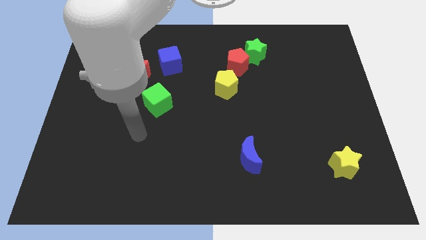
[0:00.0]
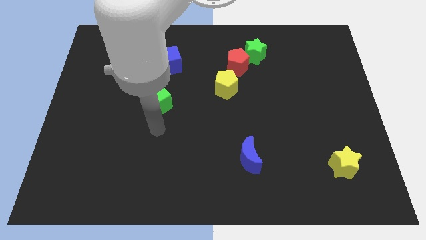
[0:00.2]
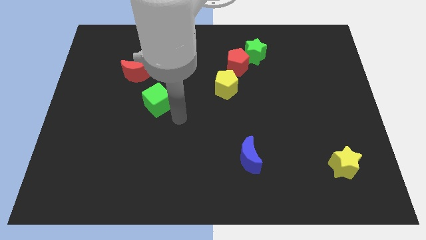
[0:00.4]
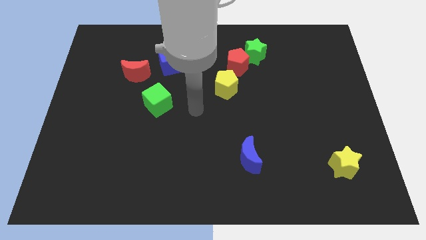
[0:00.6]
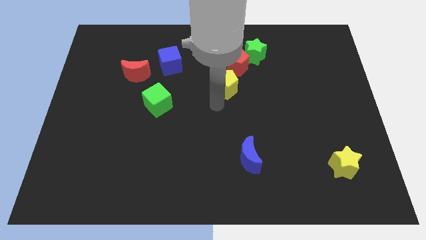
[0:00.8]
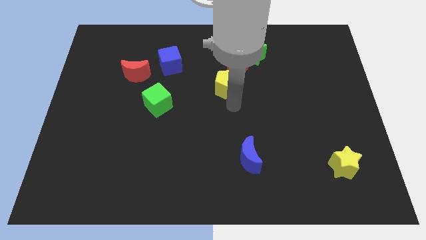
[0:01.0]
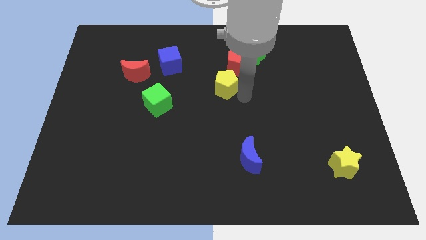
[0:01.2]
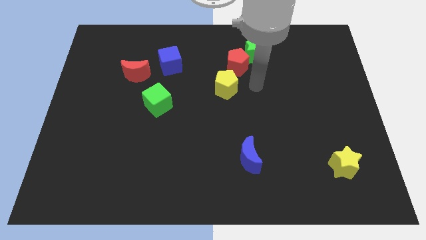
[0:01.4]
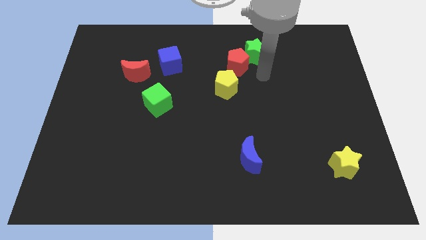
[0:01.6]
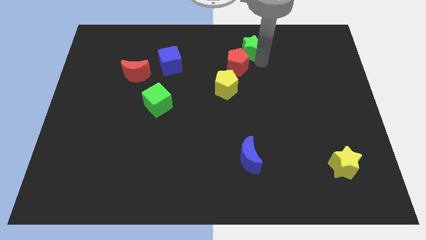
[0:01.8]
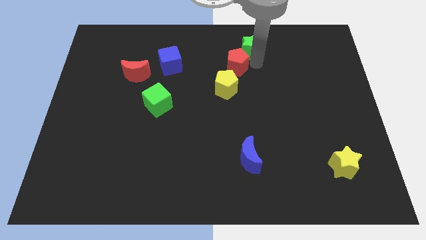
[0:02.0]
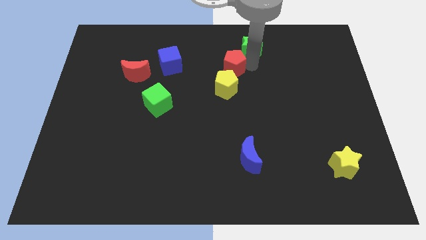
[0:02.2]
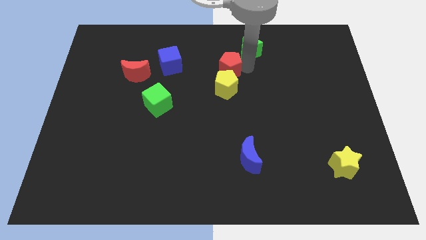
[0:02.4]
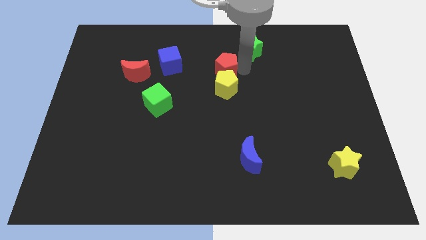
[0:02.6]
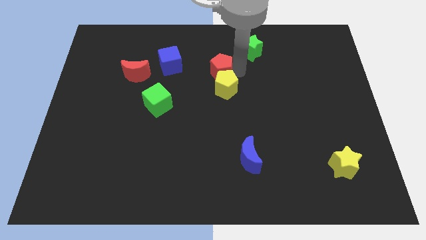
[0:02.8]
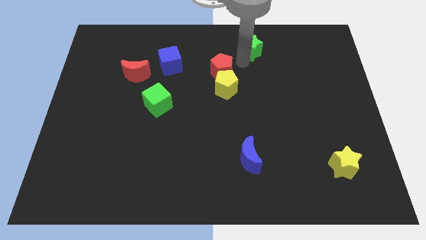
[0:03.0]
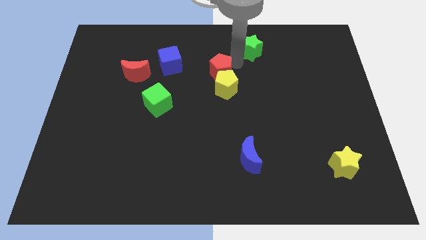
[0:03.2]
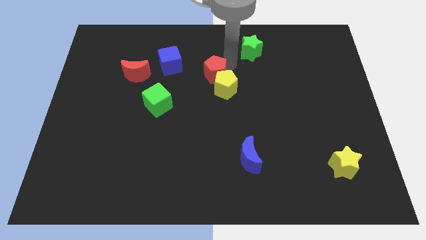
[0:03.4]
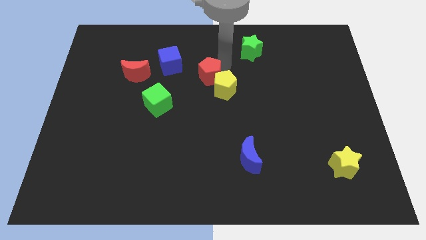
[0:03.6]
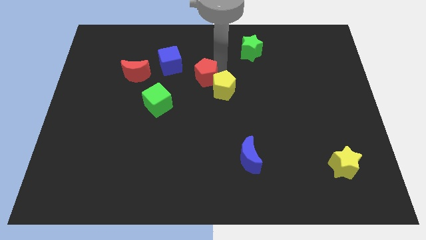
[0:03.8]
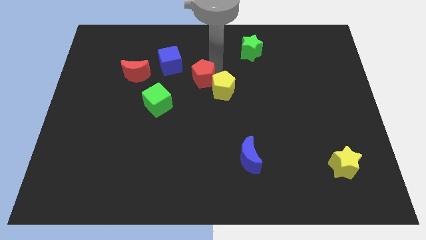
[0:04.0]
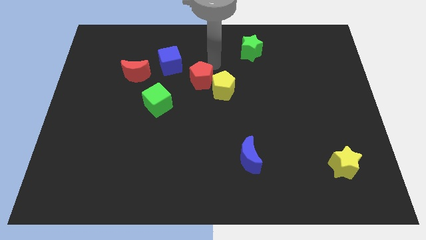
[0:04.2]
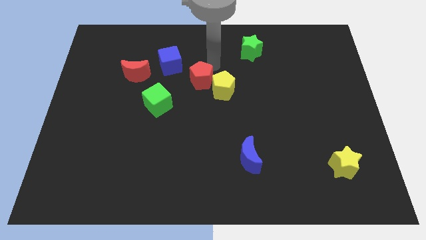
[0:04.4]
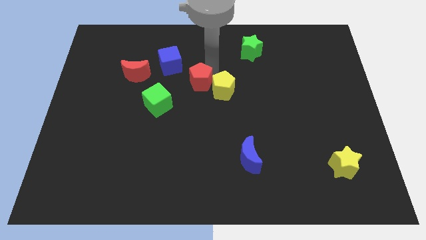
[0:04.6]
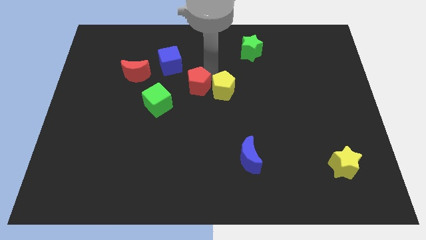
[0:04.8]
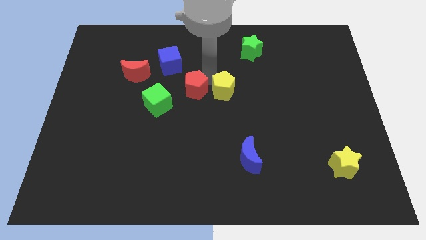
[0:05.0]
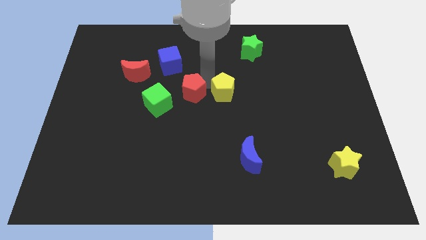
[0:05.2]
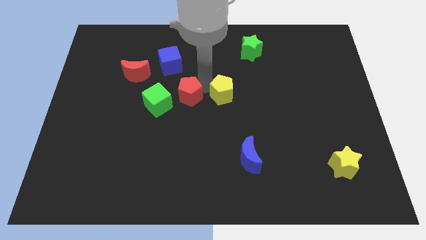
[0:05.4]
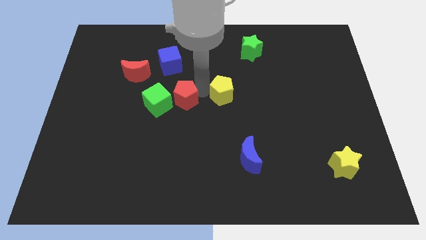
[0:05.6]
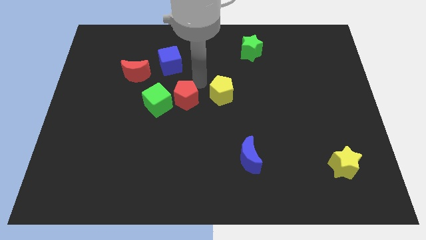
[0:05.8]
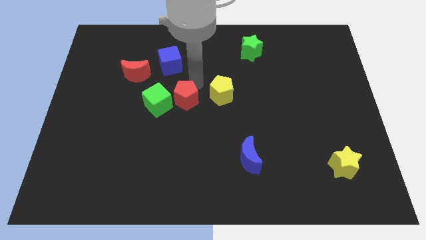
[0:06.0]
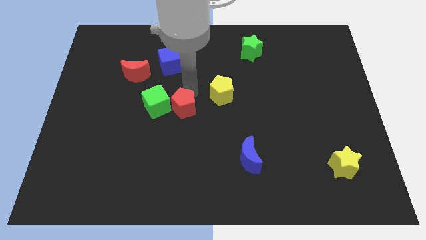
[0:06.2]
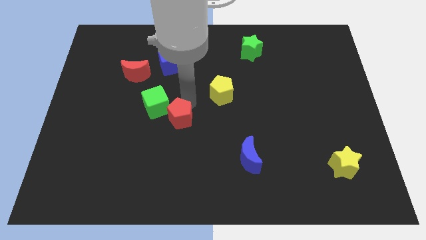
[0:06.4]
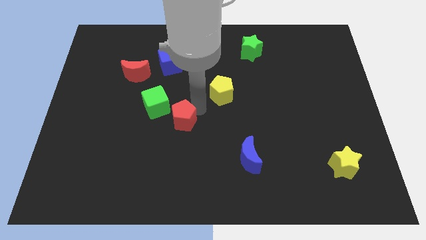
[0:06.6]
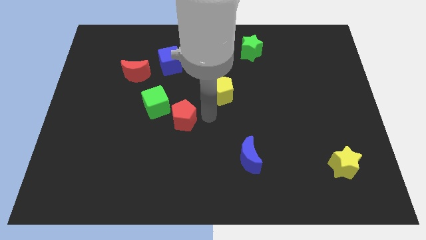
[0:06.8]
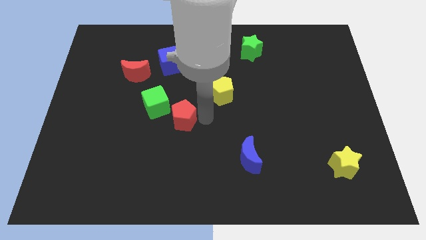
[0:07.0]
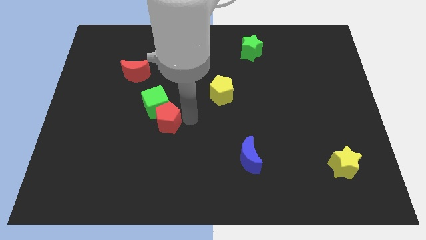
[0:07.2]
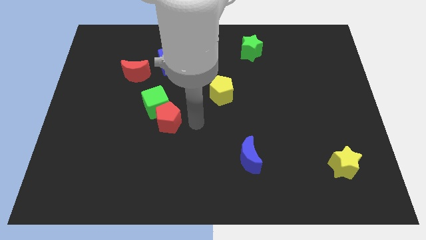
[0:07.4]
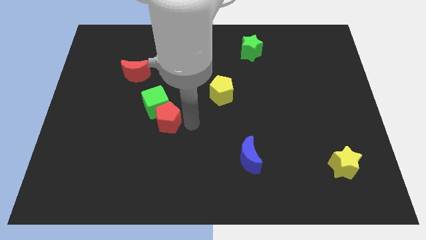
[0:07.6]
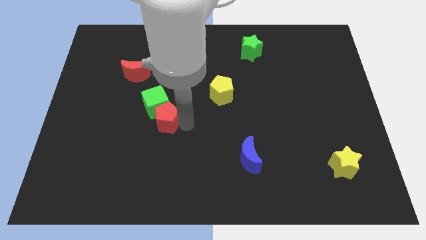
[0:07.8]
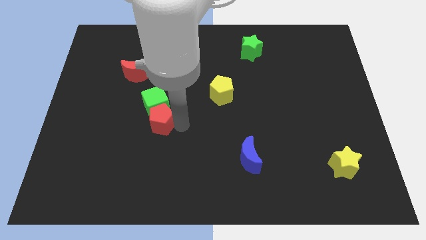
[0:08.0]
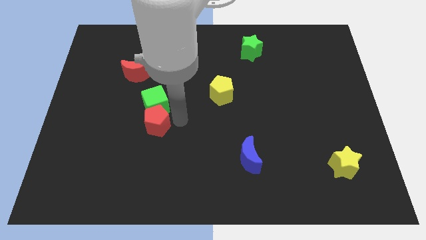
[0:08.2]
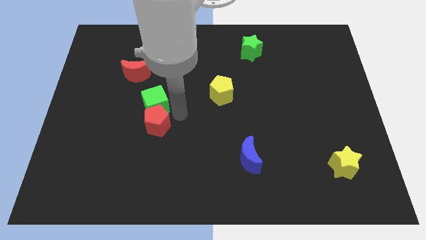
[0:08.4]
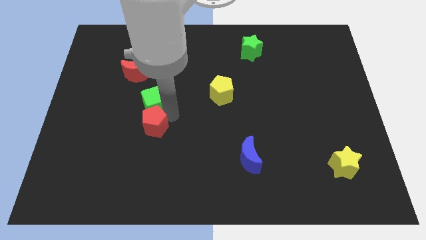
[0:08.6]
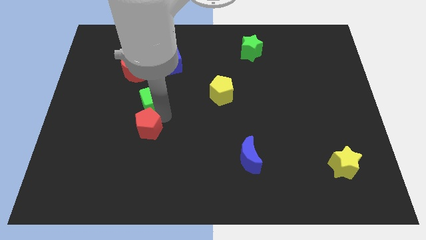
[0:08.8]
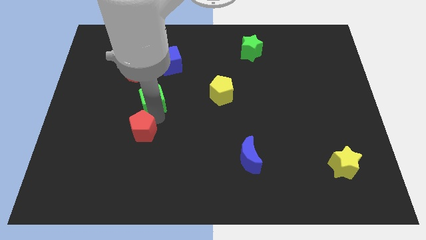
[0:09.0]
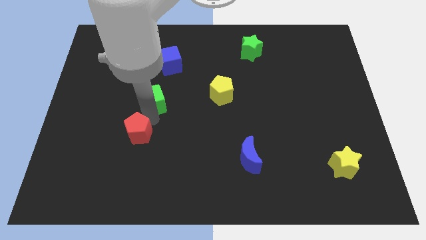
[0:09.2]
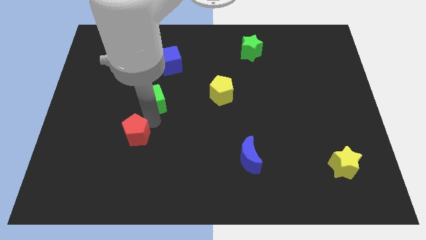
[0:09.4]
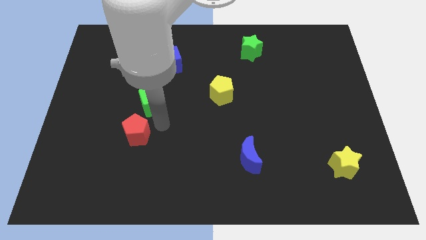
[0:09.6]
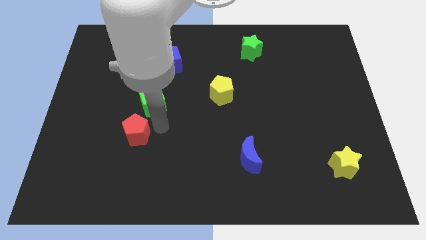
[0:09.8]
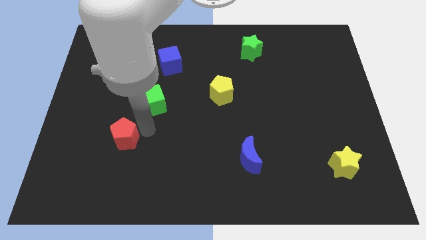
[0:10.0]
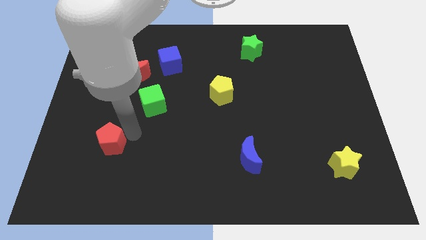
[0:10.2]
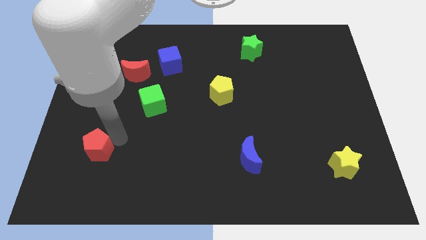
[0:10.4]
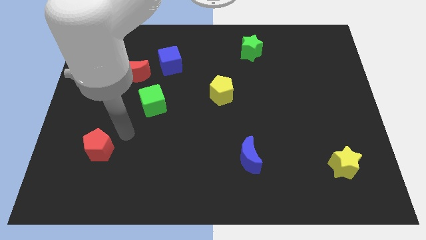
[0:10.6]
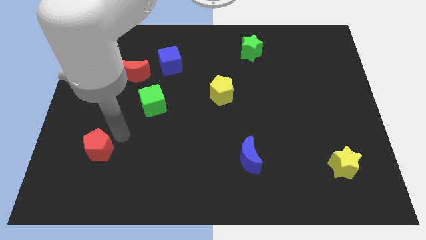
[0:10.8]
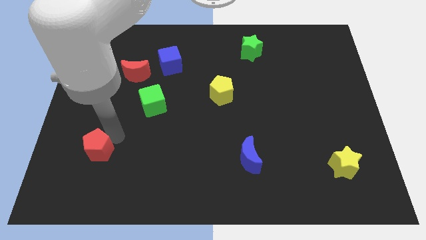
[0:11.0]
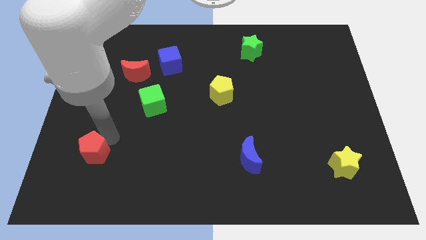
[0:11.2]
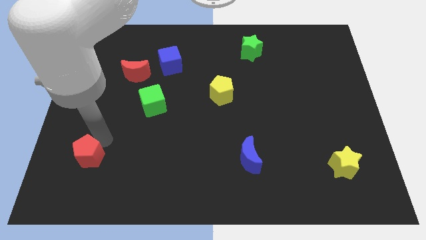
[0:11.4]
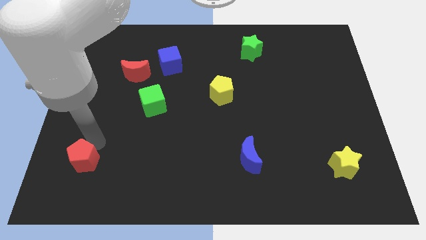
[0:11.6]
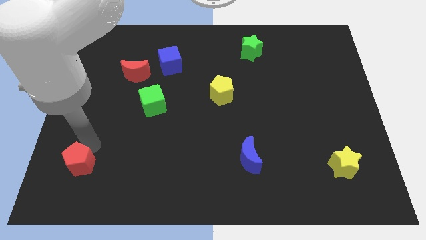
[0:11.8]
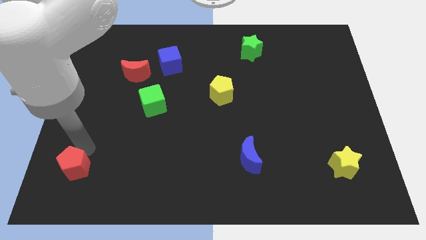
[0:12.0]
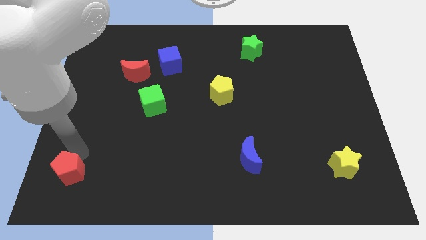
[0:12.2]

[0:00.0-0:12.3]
push the red pentagon to the bottom left of the board

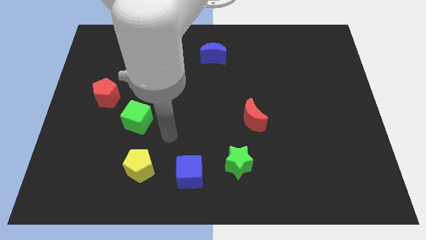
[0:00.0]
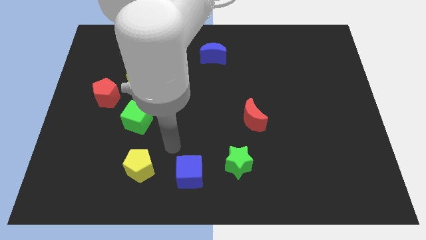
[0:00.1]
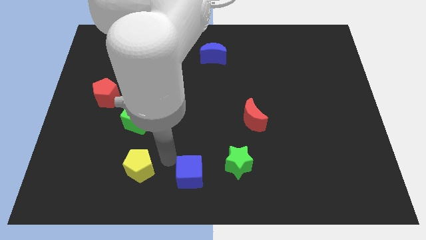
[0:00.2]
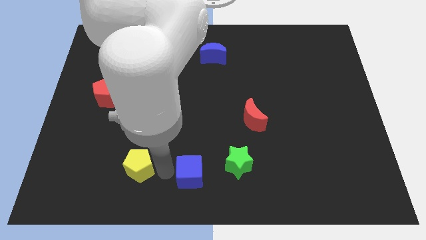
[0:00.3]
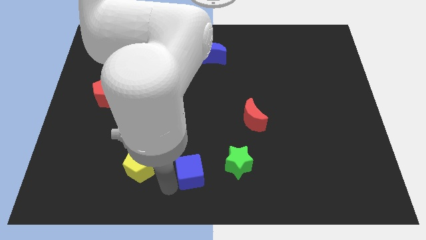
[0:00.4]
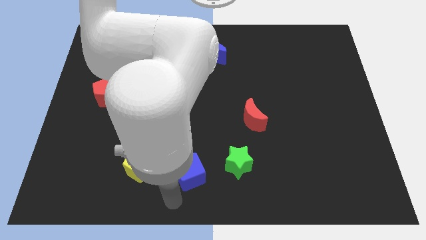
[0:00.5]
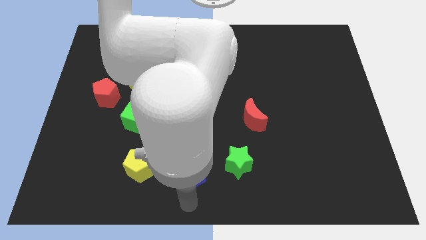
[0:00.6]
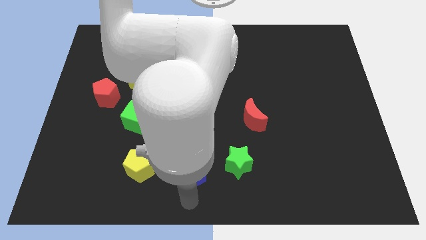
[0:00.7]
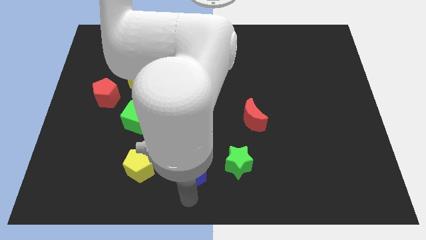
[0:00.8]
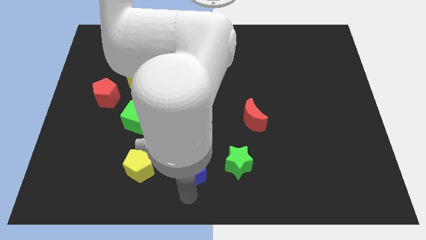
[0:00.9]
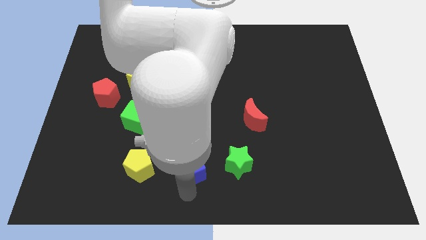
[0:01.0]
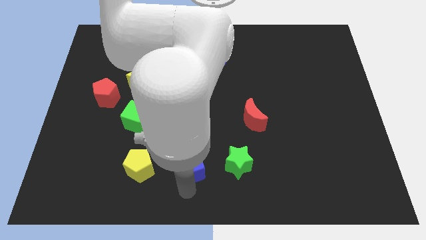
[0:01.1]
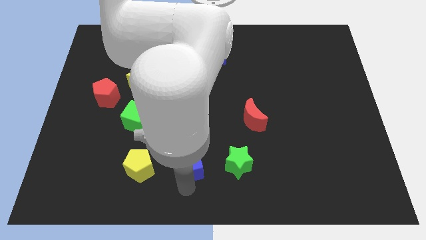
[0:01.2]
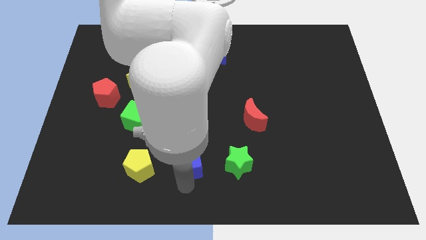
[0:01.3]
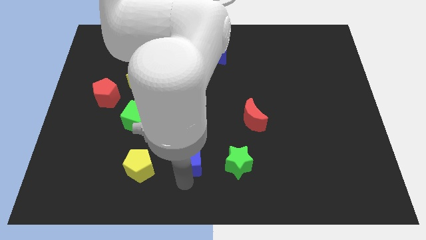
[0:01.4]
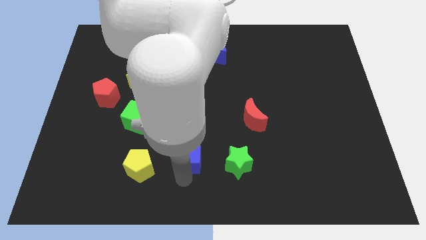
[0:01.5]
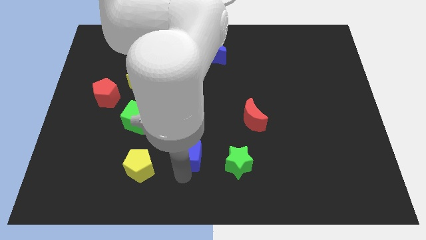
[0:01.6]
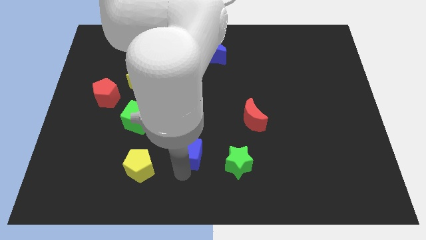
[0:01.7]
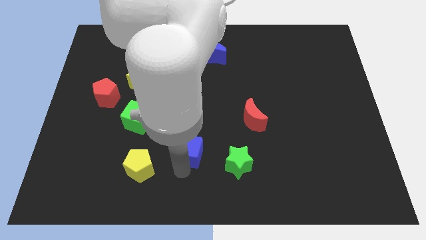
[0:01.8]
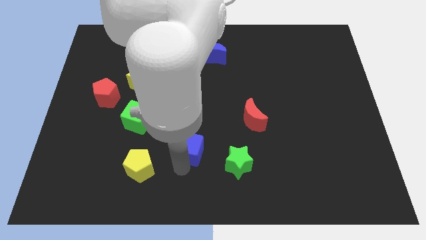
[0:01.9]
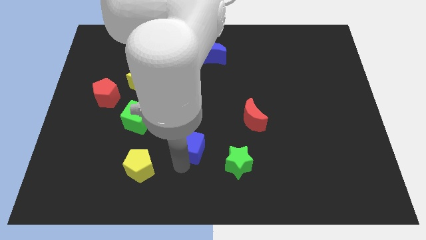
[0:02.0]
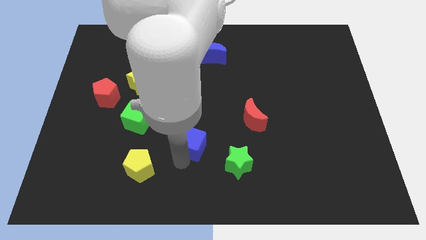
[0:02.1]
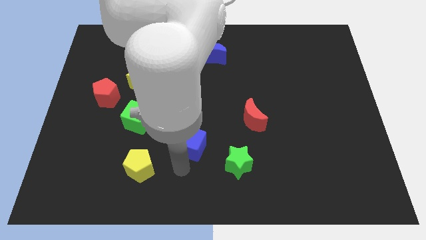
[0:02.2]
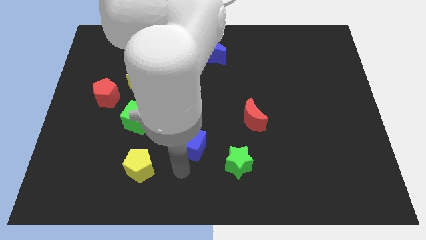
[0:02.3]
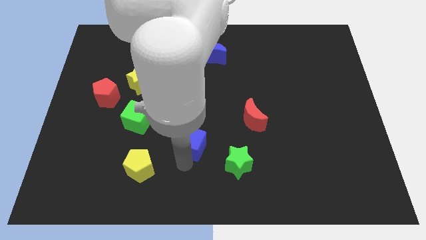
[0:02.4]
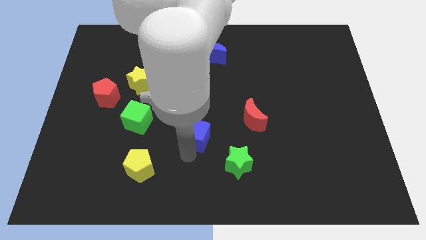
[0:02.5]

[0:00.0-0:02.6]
move the blue cube to the middle of the board
